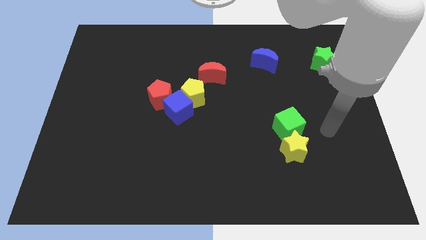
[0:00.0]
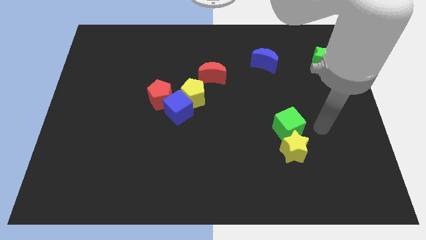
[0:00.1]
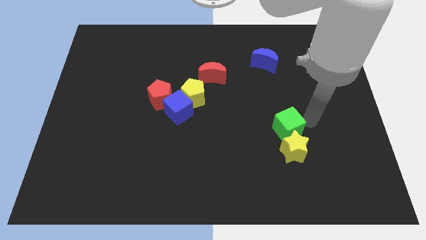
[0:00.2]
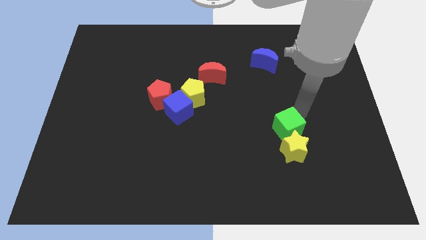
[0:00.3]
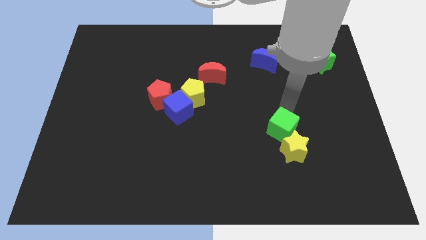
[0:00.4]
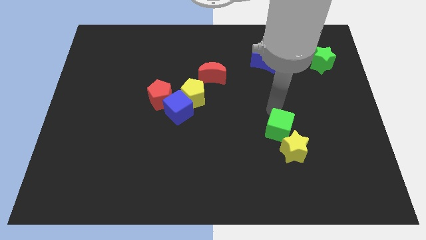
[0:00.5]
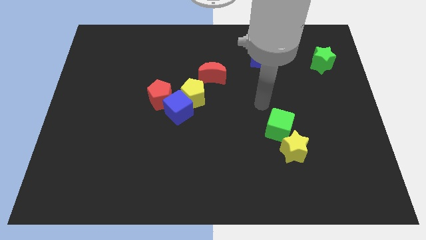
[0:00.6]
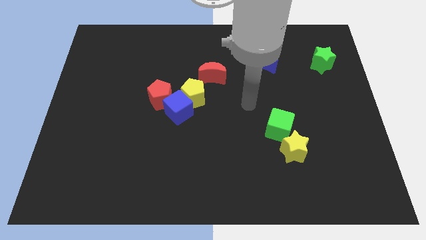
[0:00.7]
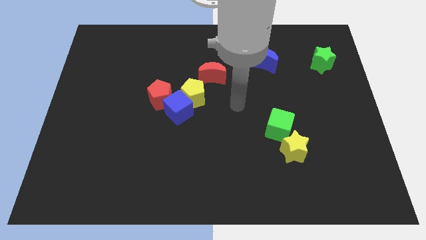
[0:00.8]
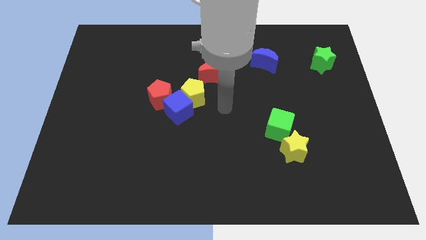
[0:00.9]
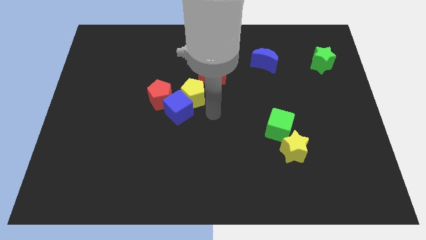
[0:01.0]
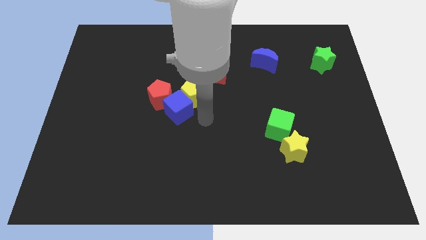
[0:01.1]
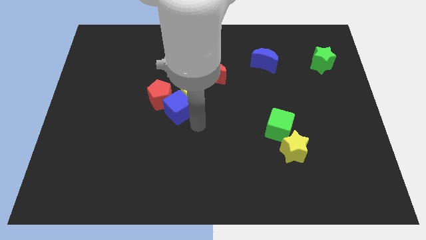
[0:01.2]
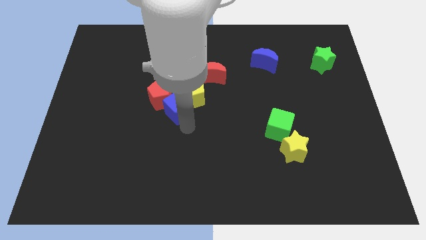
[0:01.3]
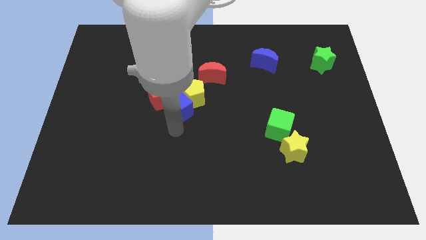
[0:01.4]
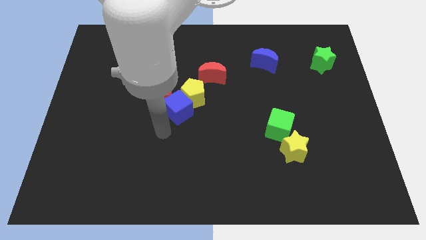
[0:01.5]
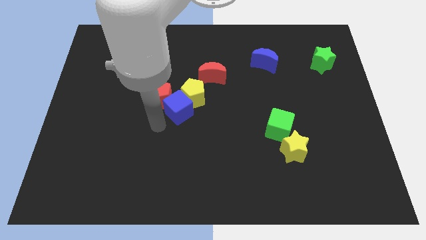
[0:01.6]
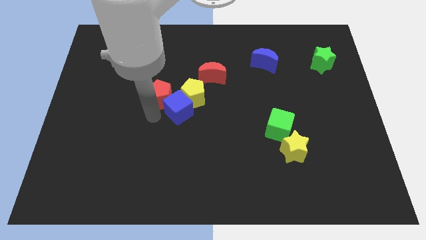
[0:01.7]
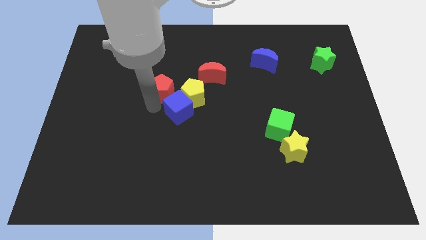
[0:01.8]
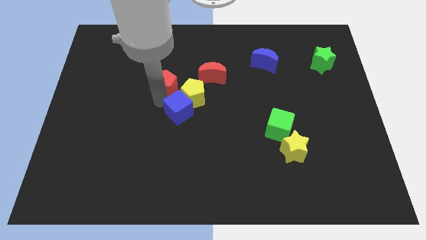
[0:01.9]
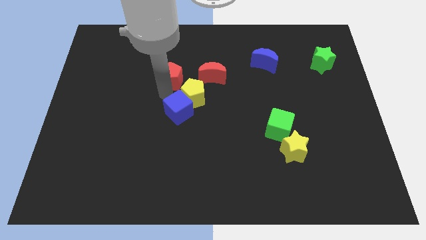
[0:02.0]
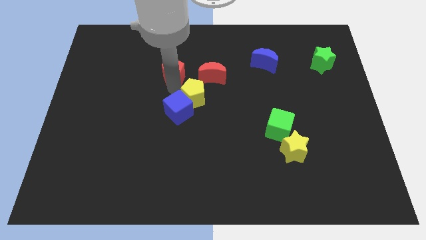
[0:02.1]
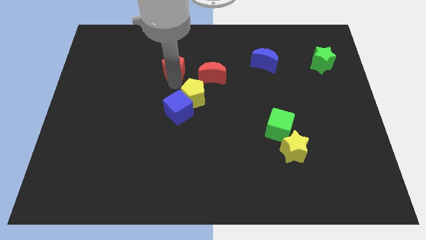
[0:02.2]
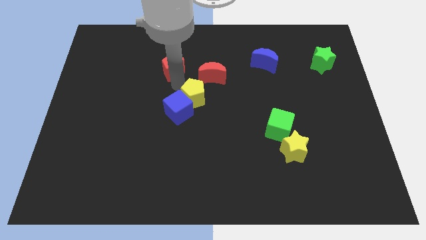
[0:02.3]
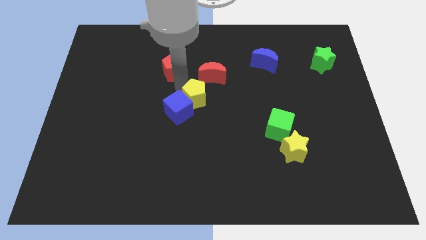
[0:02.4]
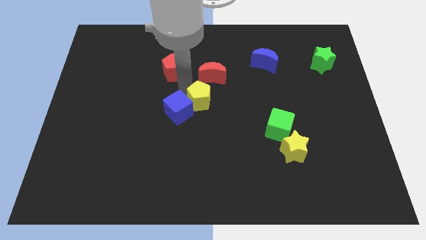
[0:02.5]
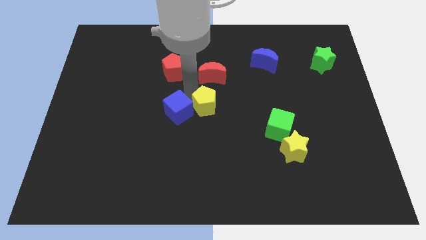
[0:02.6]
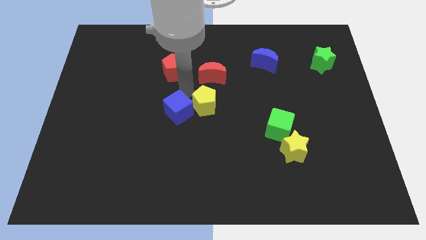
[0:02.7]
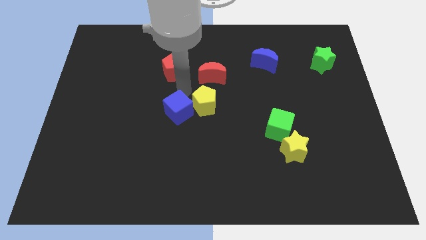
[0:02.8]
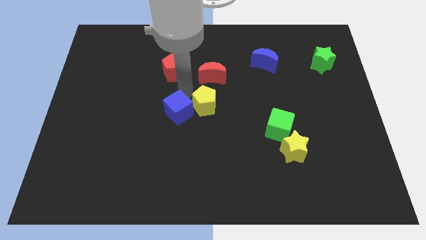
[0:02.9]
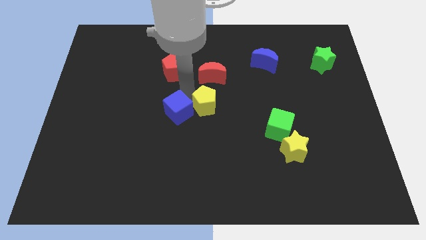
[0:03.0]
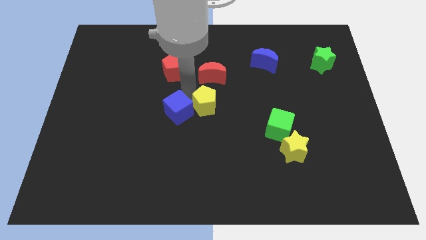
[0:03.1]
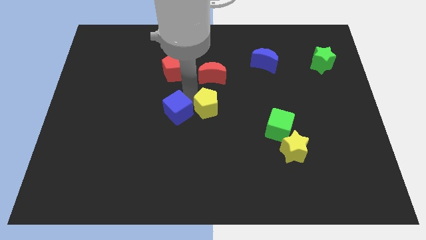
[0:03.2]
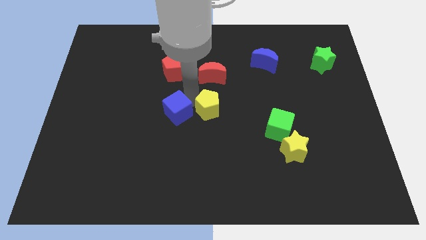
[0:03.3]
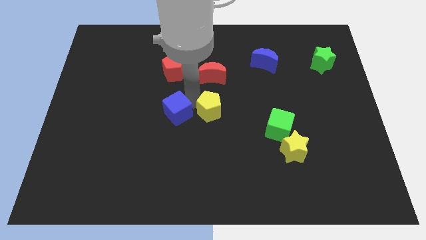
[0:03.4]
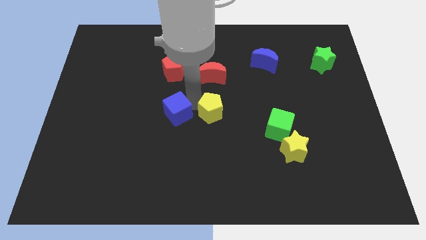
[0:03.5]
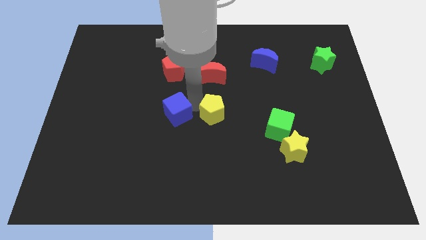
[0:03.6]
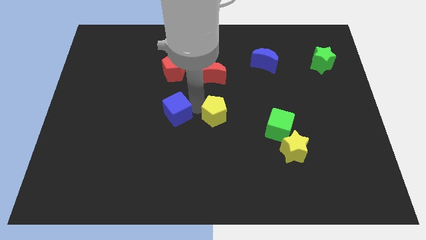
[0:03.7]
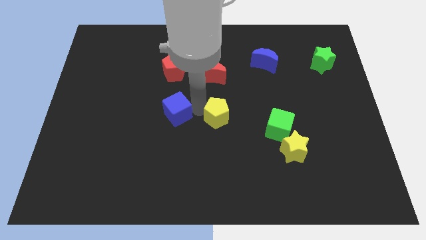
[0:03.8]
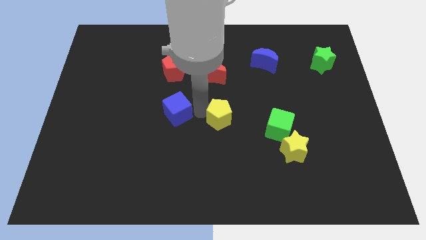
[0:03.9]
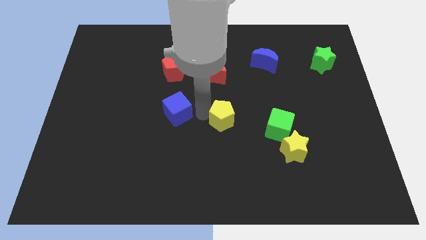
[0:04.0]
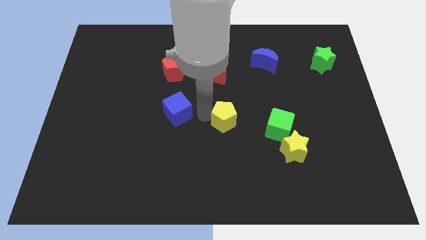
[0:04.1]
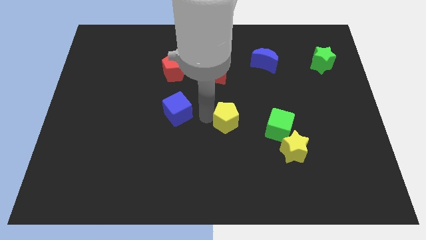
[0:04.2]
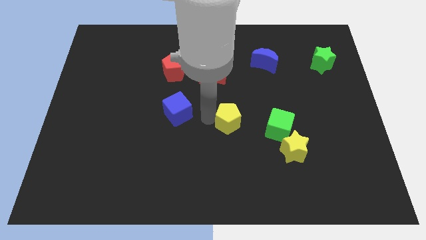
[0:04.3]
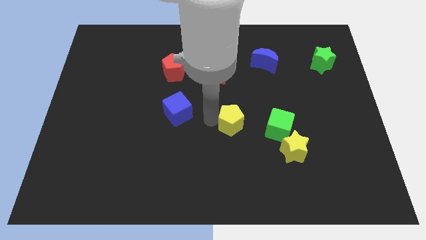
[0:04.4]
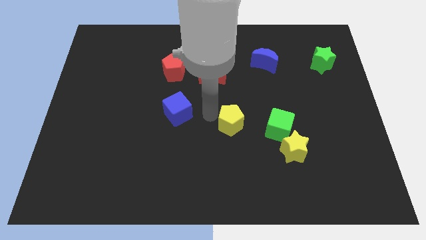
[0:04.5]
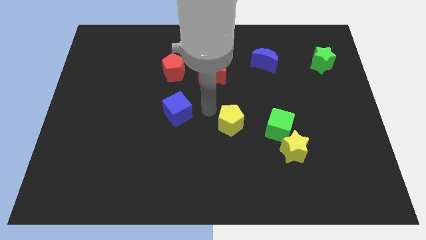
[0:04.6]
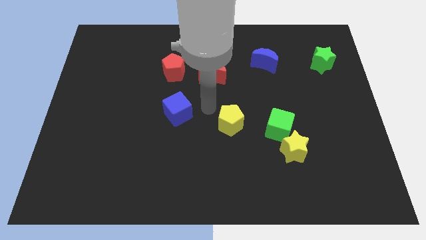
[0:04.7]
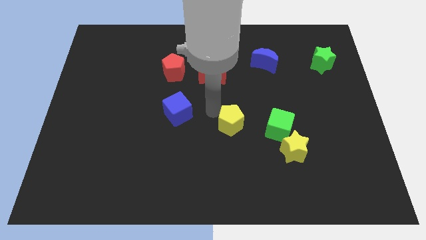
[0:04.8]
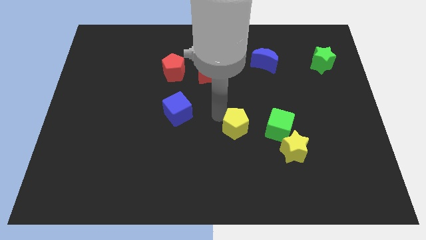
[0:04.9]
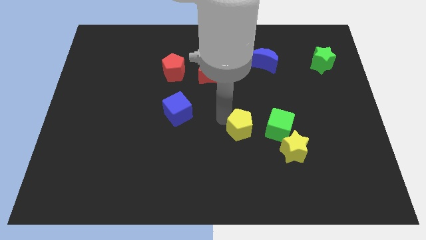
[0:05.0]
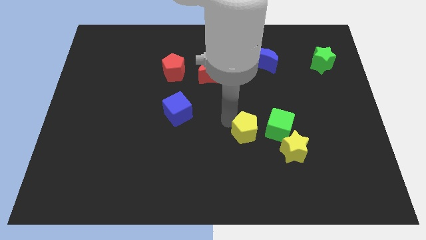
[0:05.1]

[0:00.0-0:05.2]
put the yellow pentagon to the bottom left side of the green cube

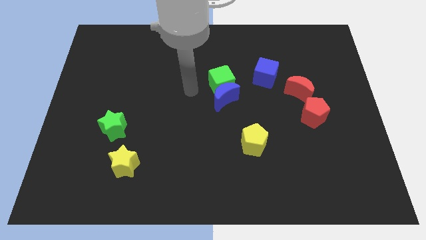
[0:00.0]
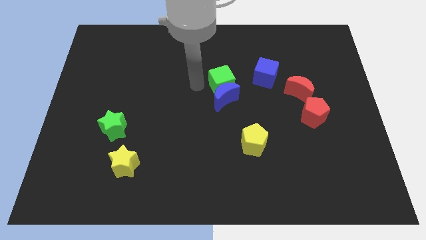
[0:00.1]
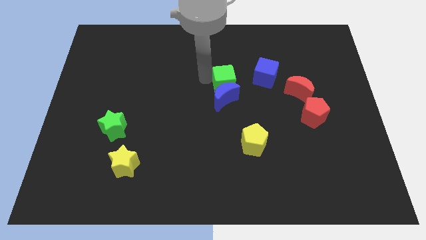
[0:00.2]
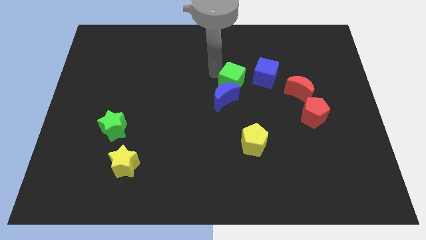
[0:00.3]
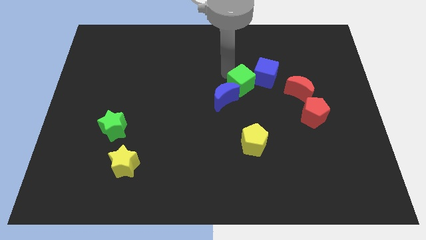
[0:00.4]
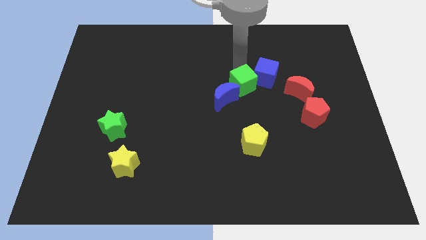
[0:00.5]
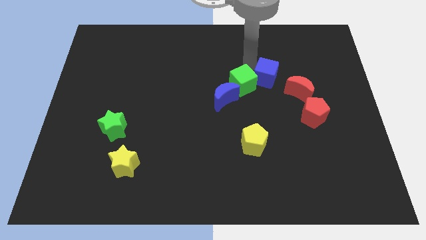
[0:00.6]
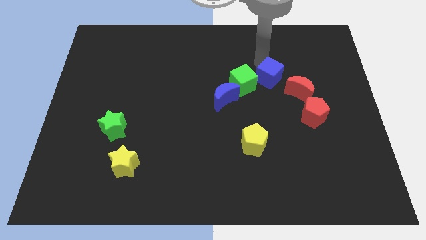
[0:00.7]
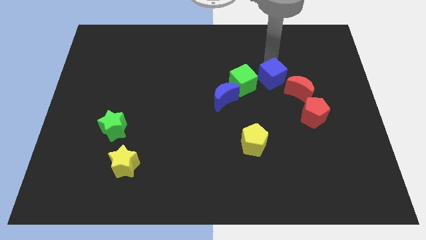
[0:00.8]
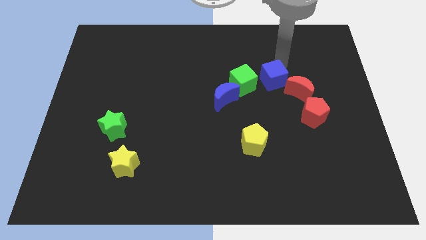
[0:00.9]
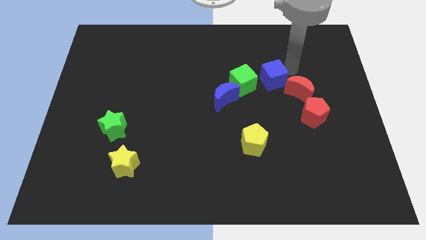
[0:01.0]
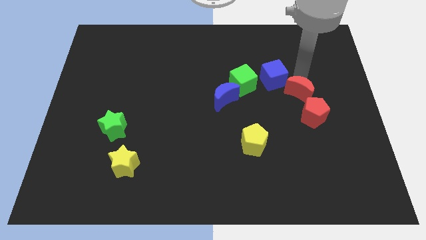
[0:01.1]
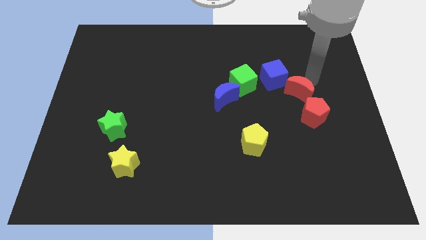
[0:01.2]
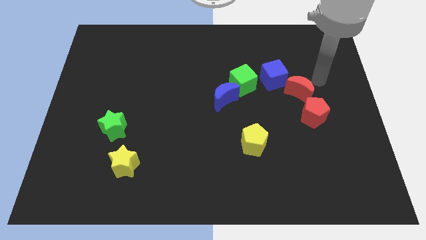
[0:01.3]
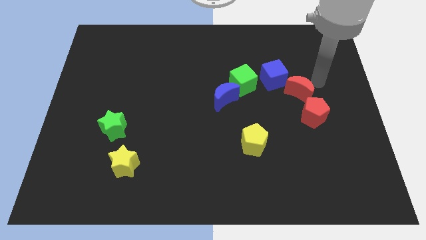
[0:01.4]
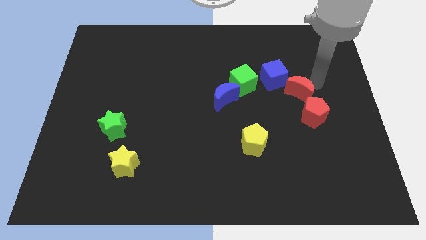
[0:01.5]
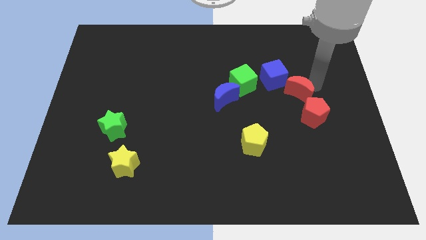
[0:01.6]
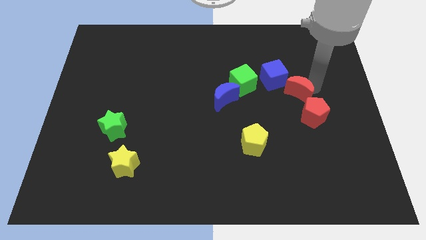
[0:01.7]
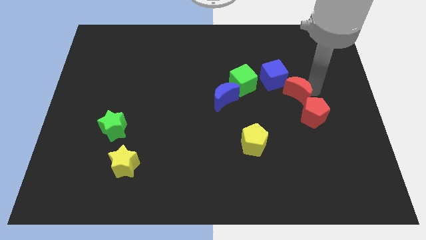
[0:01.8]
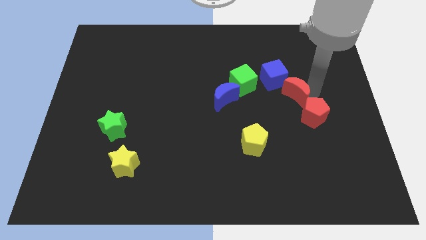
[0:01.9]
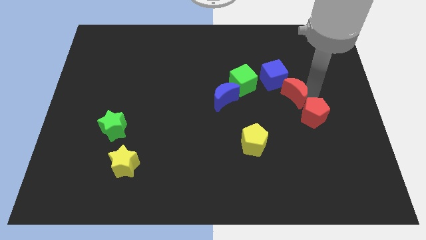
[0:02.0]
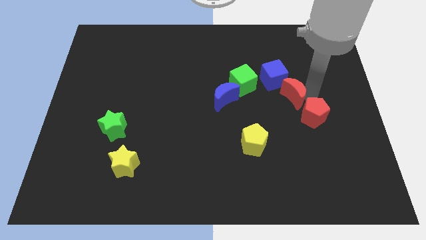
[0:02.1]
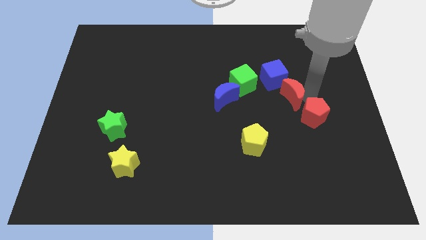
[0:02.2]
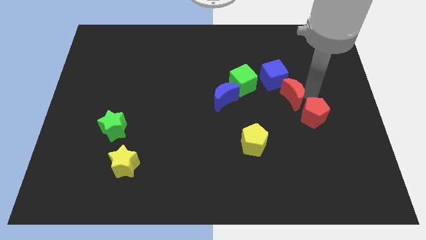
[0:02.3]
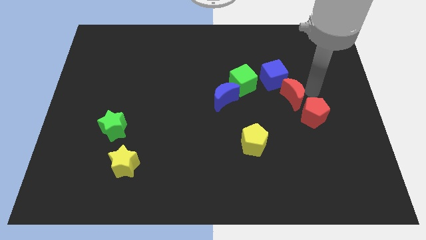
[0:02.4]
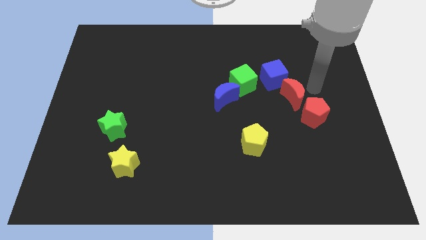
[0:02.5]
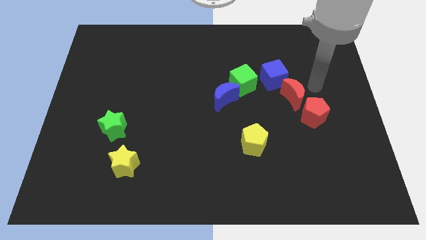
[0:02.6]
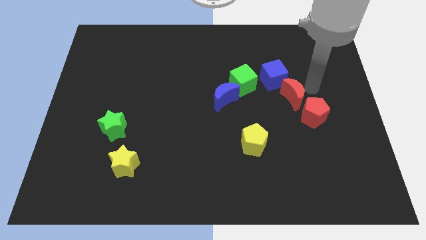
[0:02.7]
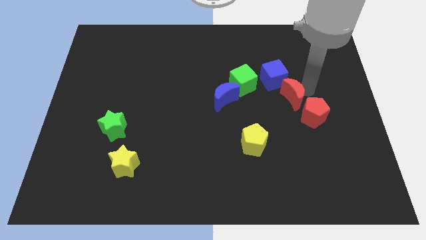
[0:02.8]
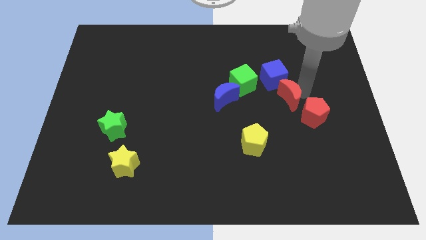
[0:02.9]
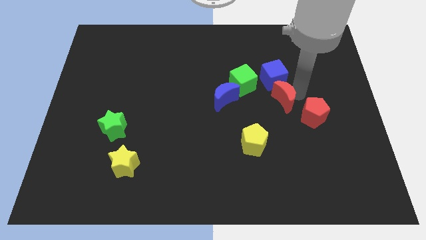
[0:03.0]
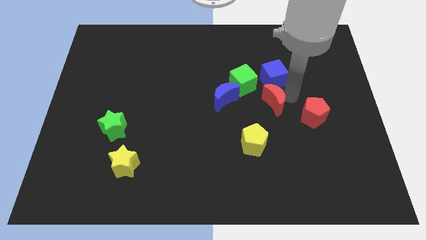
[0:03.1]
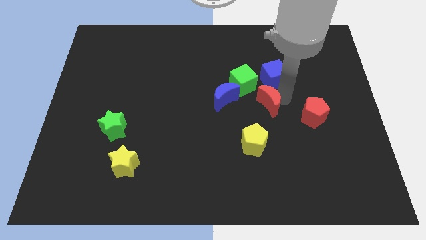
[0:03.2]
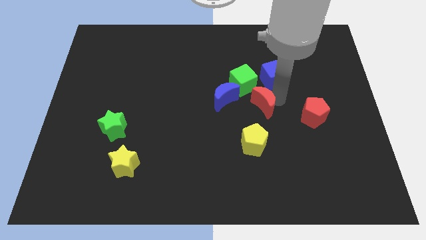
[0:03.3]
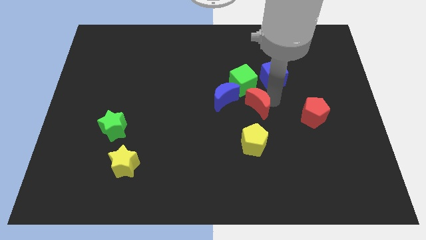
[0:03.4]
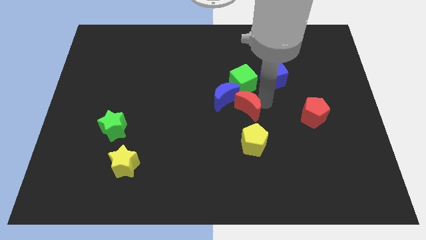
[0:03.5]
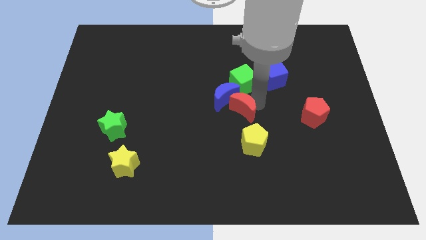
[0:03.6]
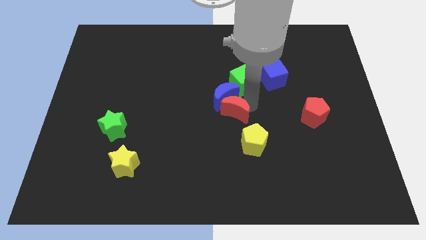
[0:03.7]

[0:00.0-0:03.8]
push the red moon to the top left side of the yellow pentagon
